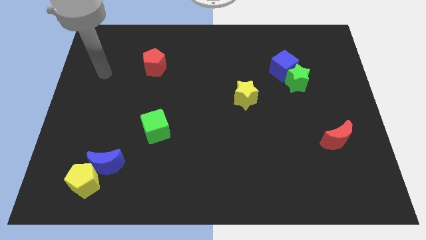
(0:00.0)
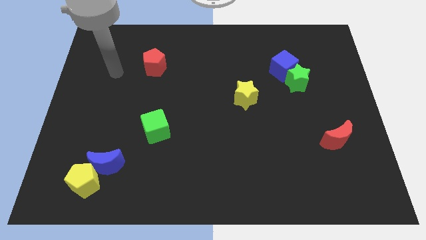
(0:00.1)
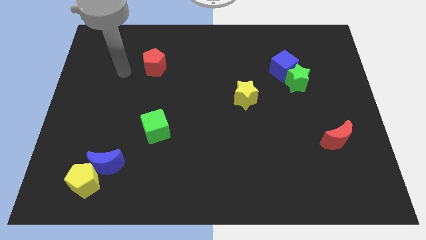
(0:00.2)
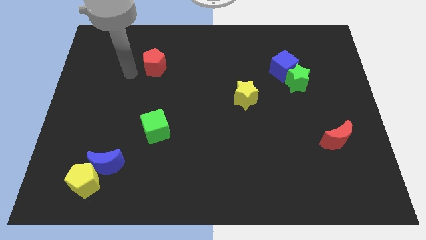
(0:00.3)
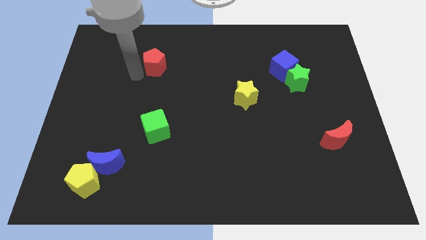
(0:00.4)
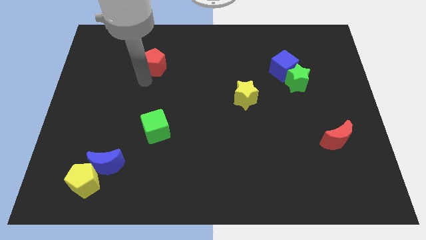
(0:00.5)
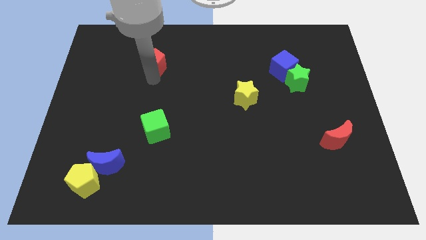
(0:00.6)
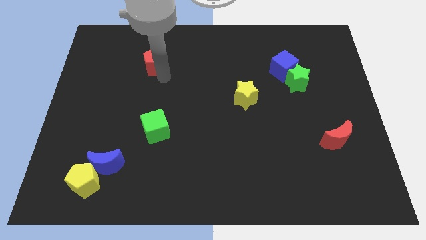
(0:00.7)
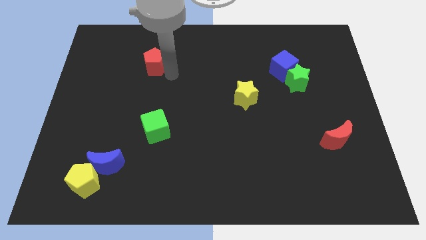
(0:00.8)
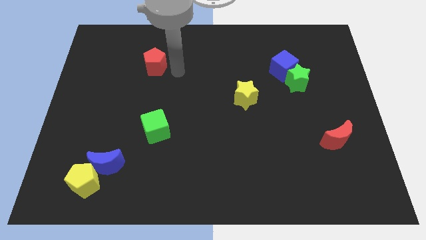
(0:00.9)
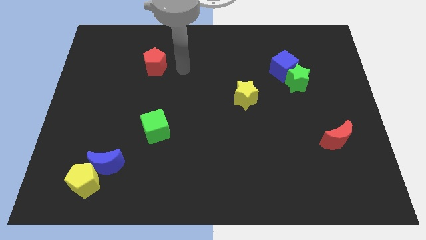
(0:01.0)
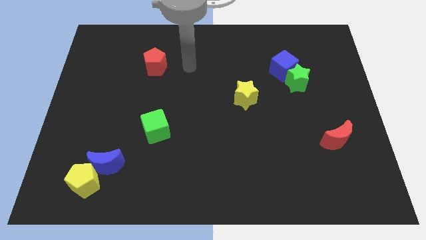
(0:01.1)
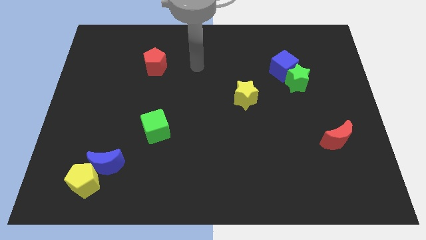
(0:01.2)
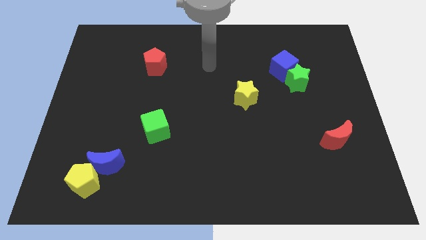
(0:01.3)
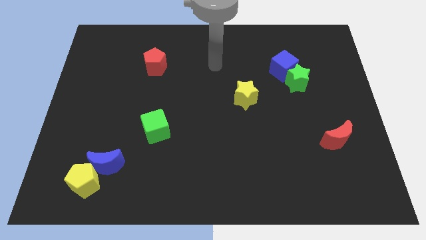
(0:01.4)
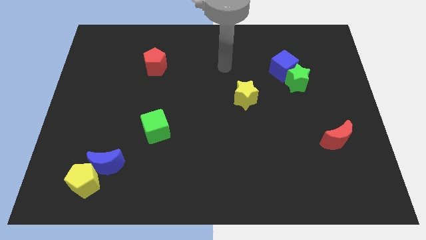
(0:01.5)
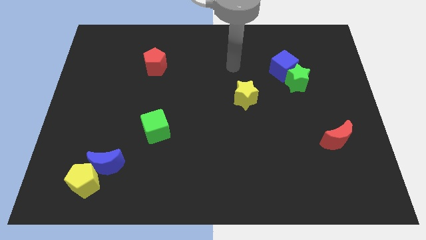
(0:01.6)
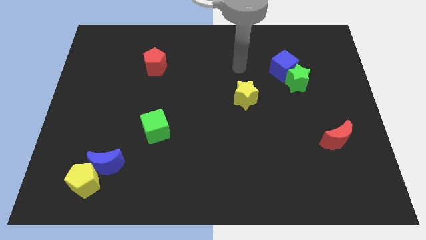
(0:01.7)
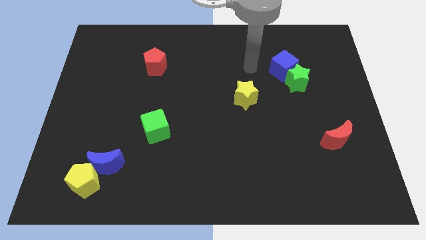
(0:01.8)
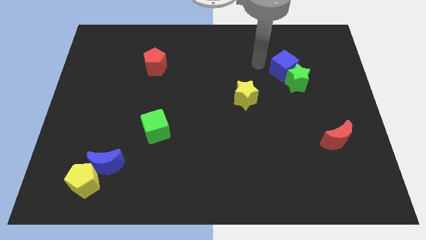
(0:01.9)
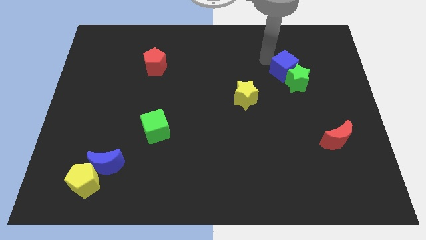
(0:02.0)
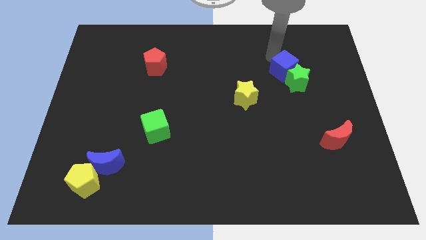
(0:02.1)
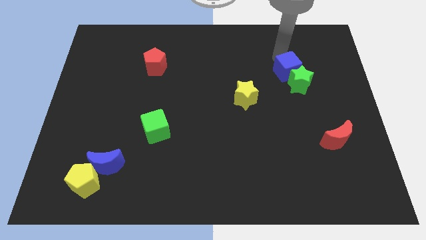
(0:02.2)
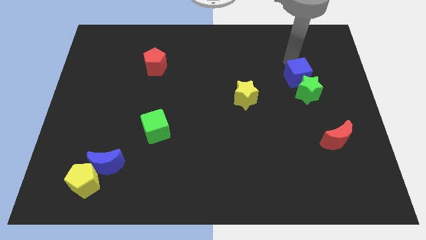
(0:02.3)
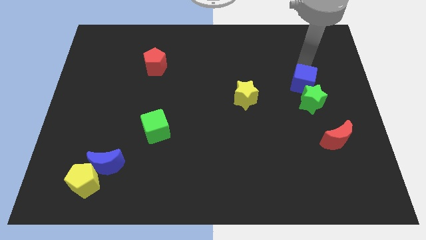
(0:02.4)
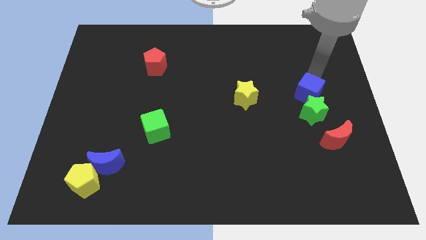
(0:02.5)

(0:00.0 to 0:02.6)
move the green star downwards a little bit

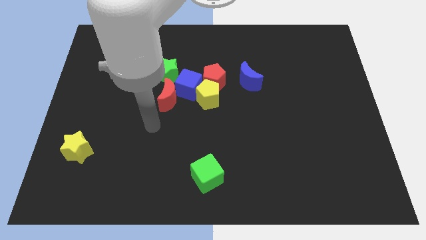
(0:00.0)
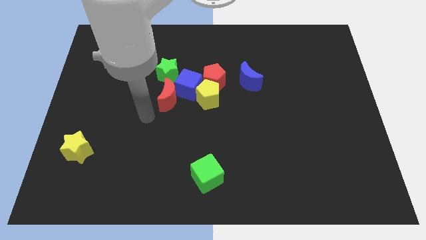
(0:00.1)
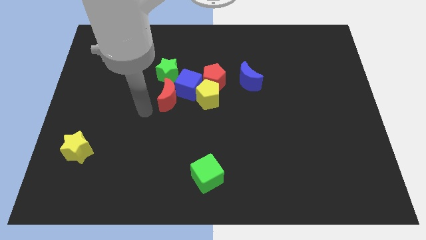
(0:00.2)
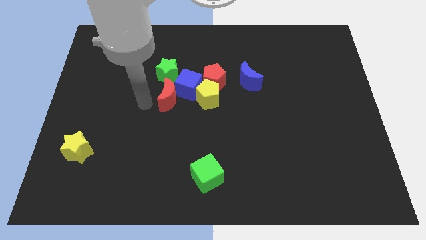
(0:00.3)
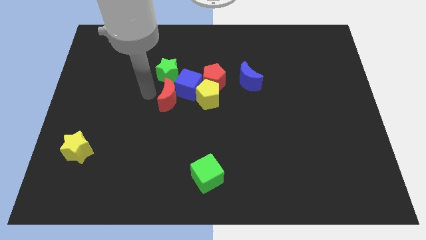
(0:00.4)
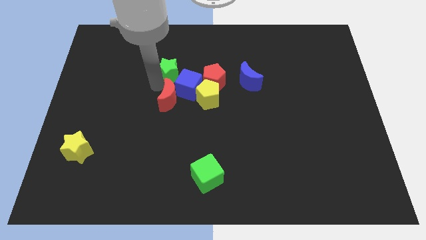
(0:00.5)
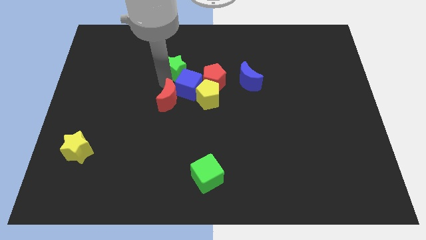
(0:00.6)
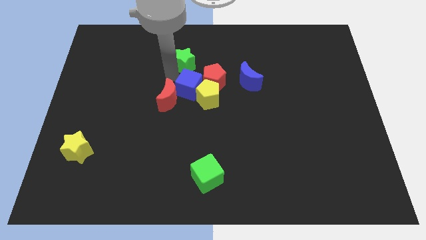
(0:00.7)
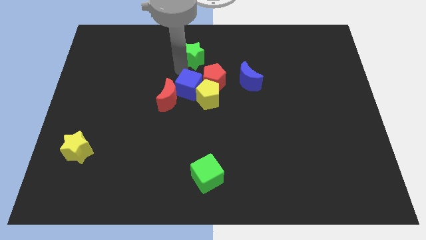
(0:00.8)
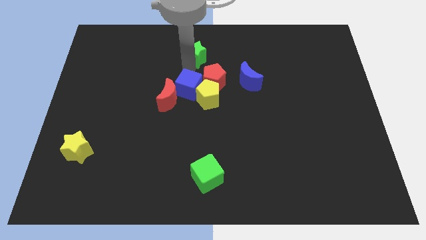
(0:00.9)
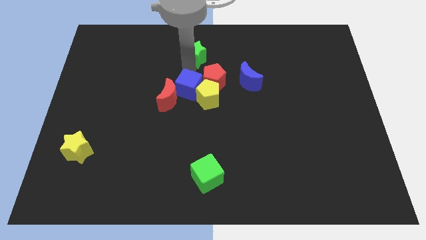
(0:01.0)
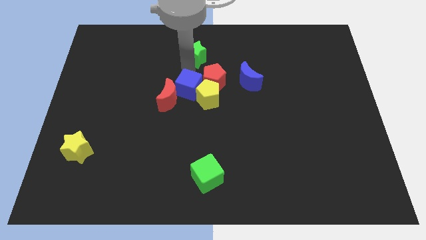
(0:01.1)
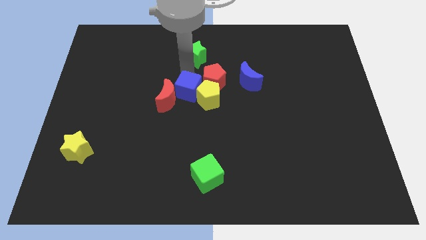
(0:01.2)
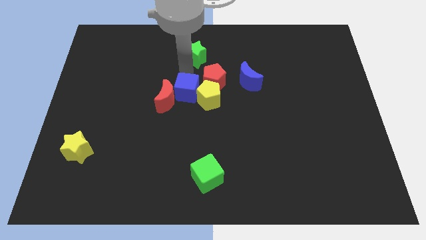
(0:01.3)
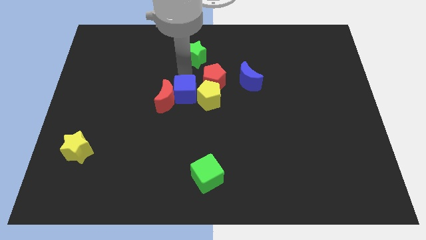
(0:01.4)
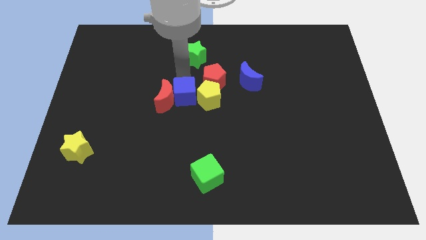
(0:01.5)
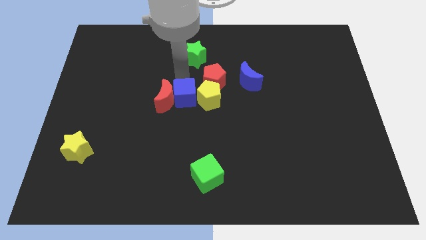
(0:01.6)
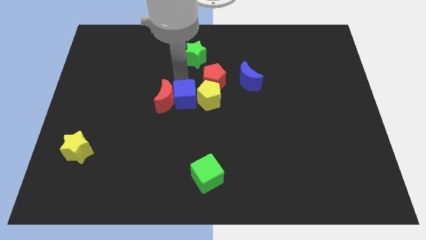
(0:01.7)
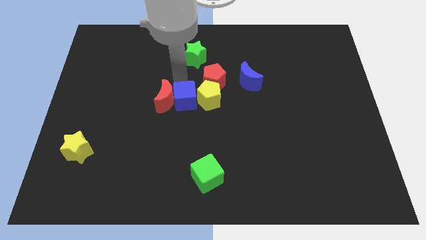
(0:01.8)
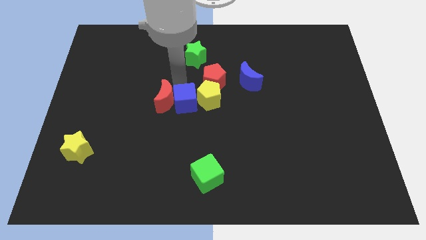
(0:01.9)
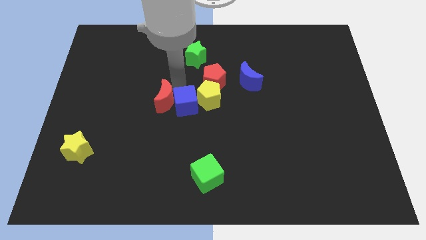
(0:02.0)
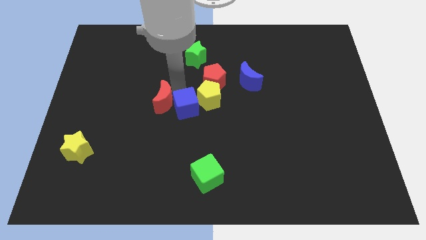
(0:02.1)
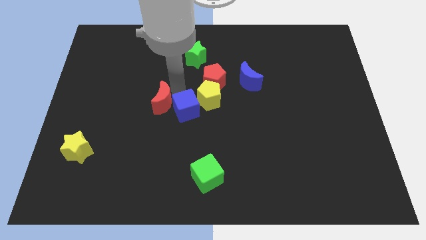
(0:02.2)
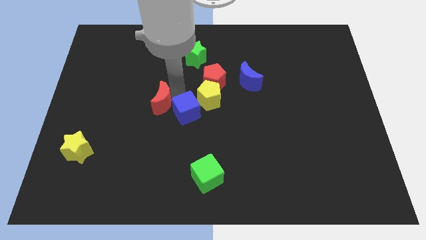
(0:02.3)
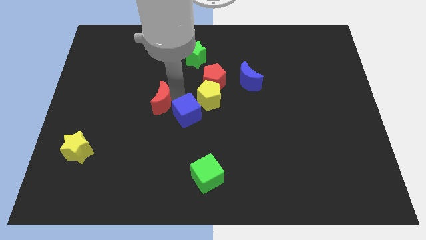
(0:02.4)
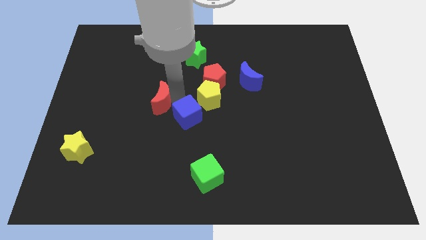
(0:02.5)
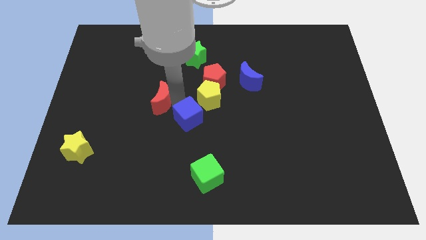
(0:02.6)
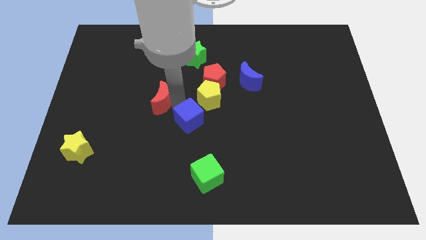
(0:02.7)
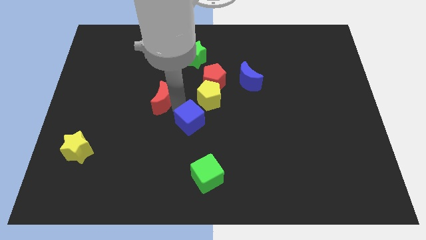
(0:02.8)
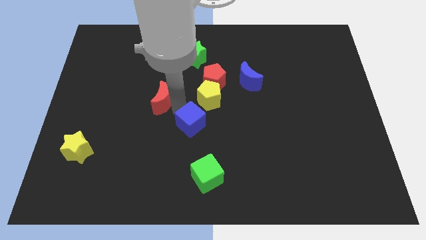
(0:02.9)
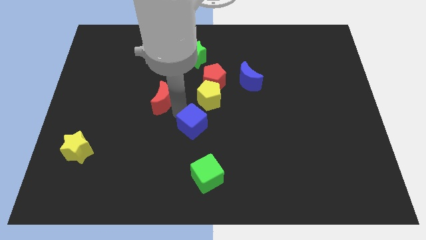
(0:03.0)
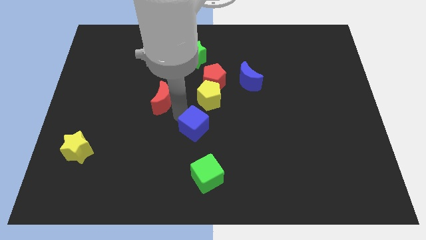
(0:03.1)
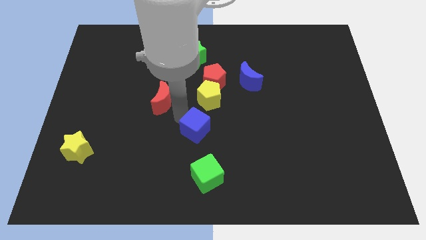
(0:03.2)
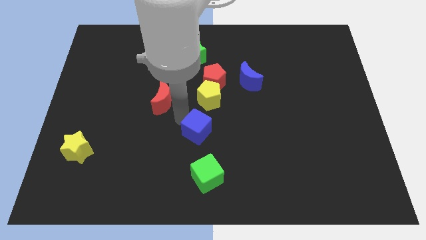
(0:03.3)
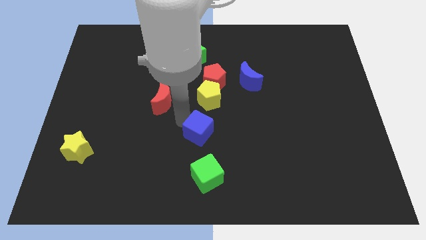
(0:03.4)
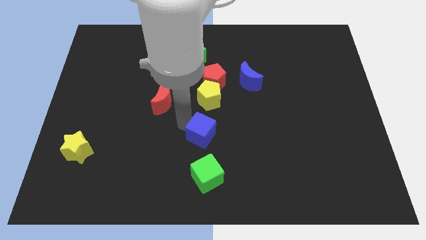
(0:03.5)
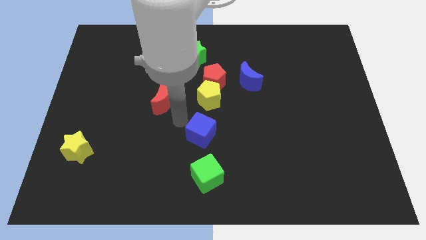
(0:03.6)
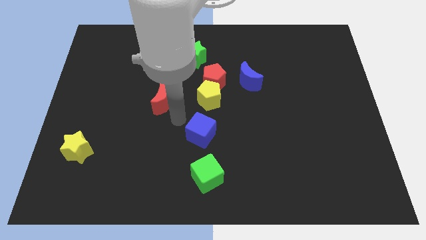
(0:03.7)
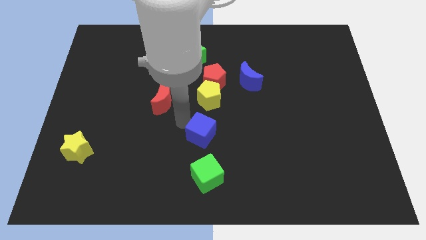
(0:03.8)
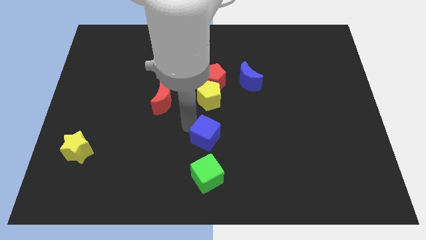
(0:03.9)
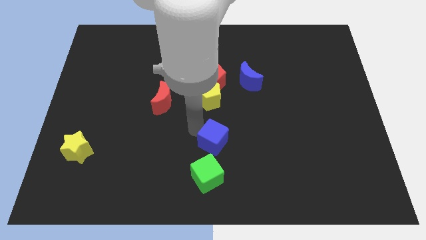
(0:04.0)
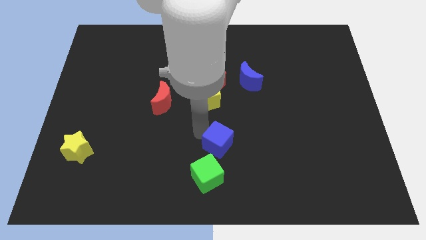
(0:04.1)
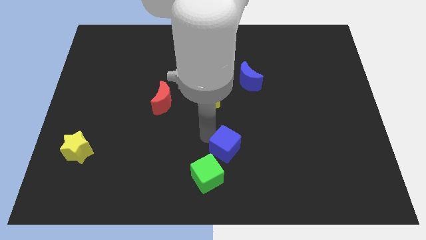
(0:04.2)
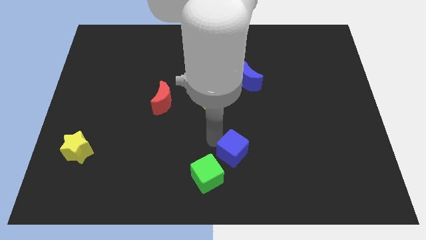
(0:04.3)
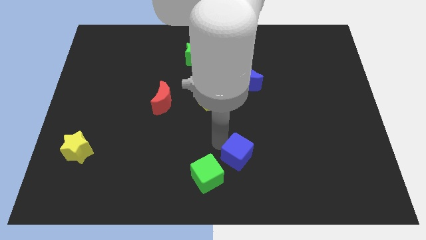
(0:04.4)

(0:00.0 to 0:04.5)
slide the blue cube diagonally downwards and right

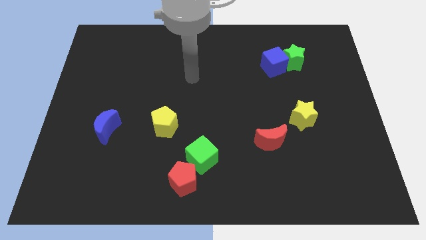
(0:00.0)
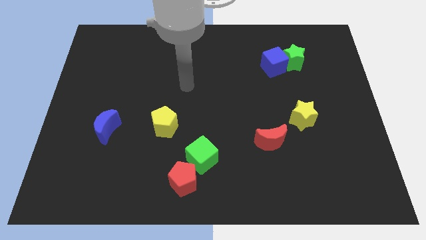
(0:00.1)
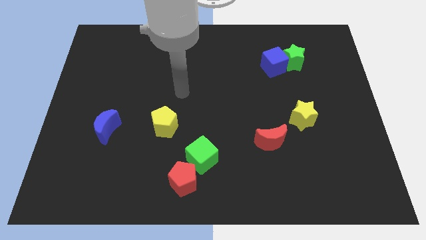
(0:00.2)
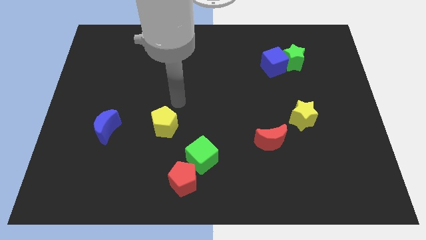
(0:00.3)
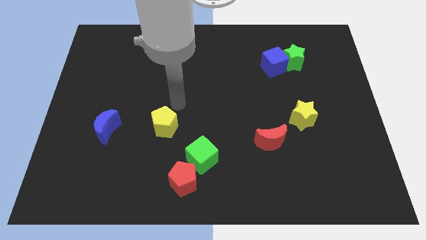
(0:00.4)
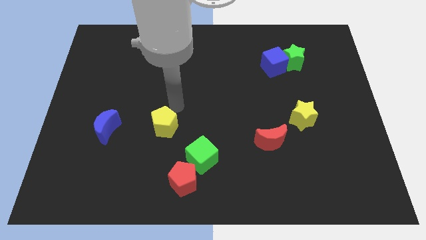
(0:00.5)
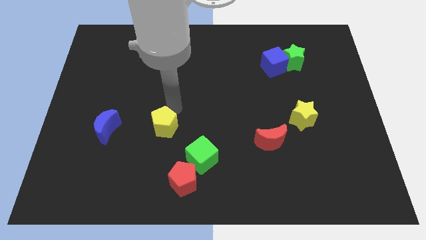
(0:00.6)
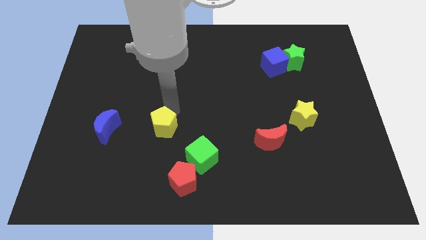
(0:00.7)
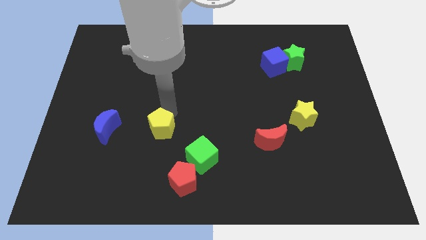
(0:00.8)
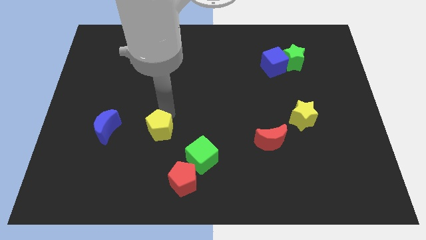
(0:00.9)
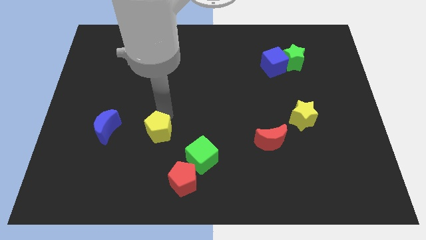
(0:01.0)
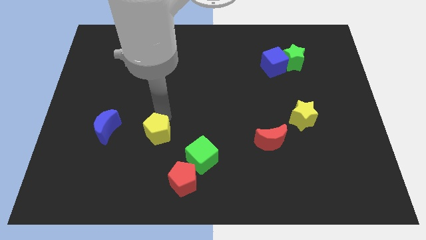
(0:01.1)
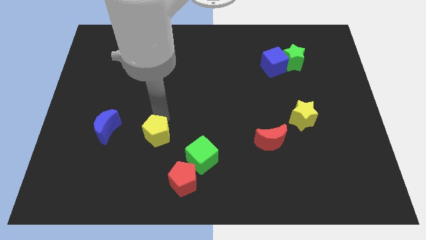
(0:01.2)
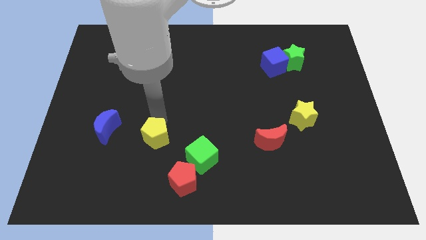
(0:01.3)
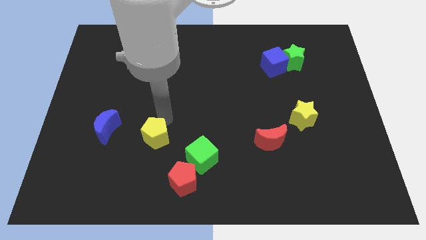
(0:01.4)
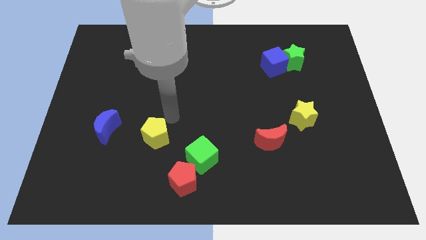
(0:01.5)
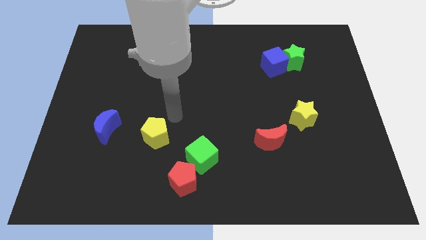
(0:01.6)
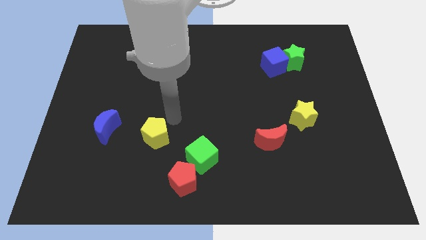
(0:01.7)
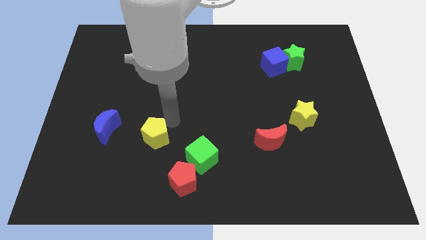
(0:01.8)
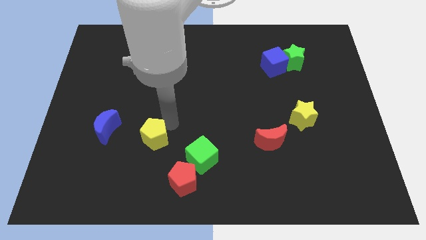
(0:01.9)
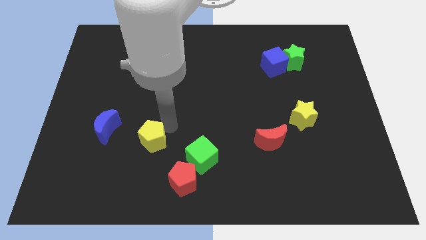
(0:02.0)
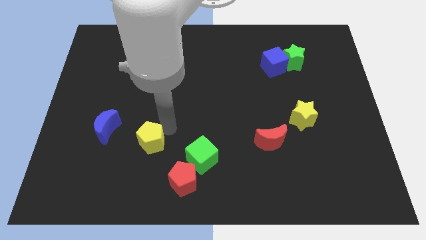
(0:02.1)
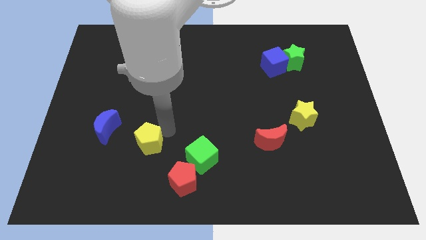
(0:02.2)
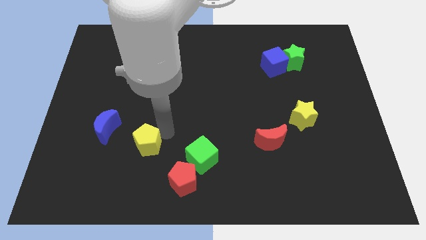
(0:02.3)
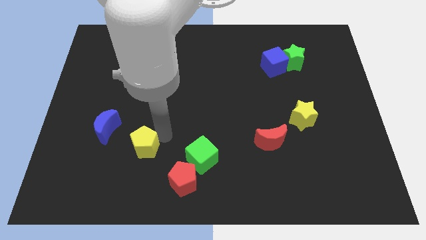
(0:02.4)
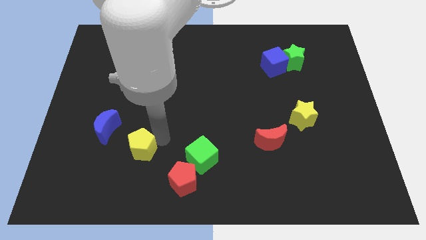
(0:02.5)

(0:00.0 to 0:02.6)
slide the yellow pentagon a little bit down and left diagonally
